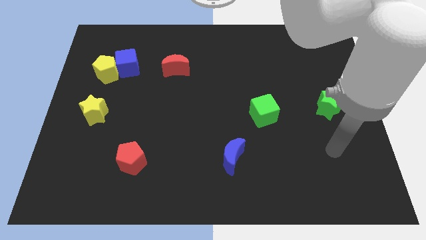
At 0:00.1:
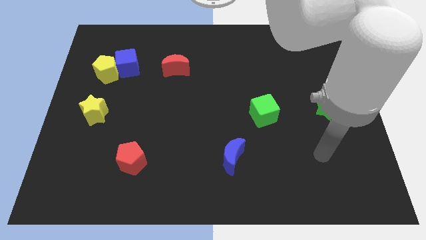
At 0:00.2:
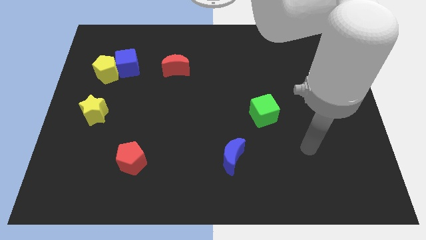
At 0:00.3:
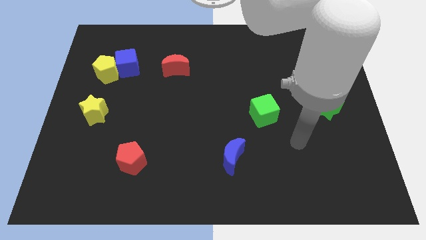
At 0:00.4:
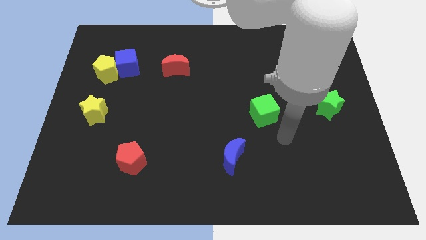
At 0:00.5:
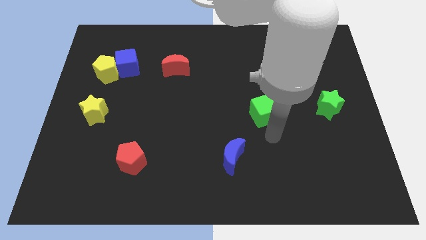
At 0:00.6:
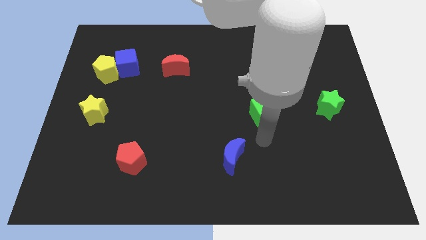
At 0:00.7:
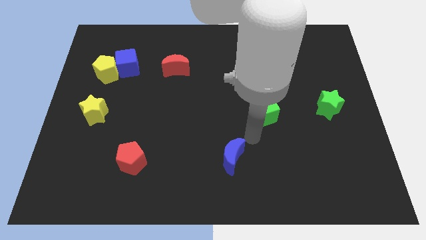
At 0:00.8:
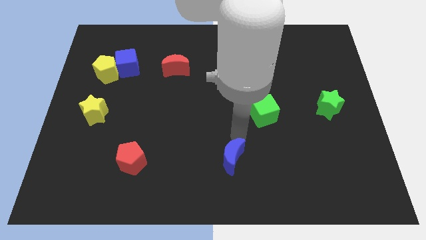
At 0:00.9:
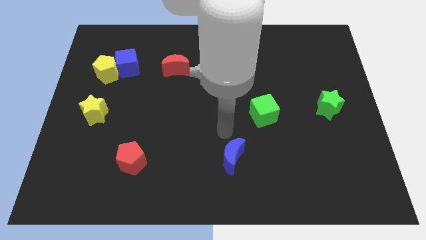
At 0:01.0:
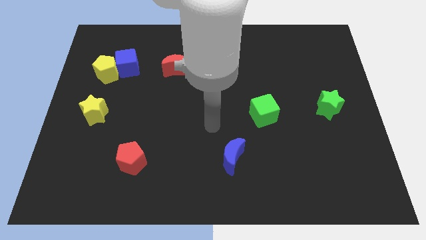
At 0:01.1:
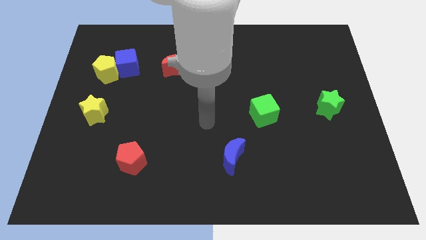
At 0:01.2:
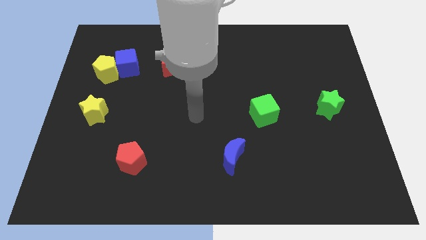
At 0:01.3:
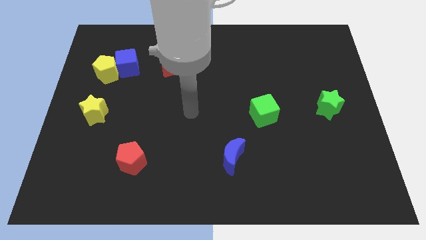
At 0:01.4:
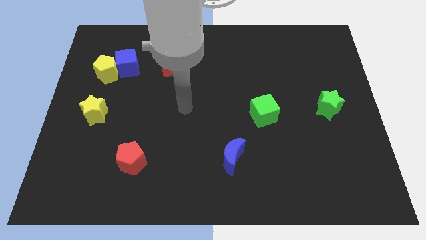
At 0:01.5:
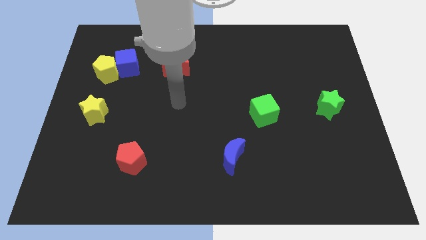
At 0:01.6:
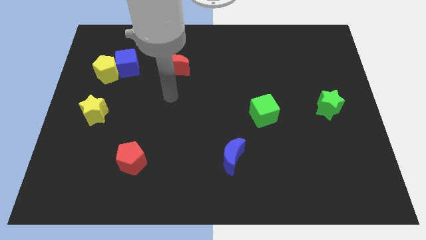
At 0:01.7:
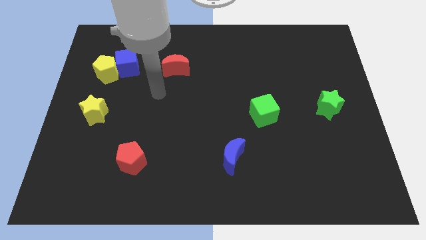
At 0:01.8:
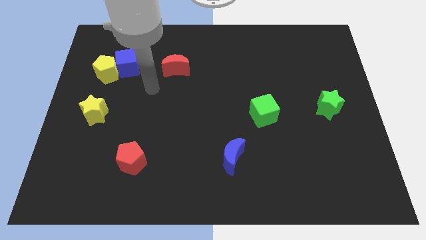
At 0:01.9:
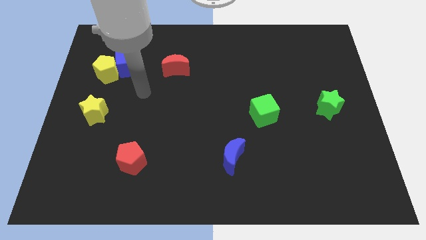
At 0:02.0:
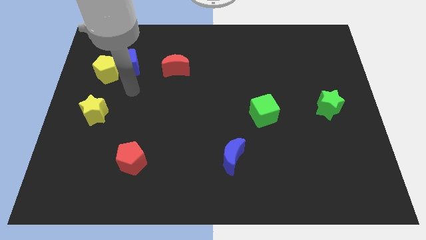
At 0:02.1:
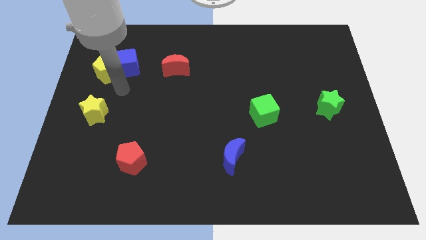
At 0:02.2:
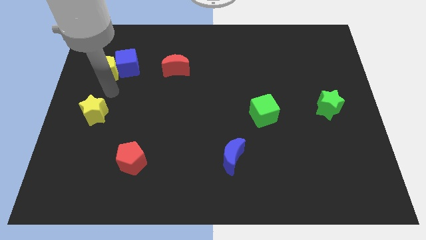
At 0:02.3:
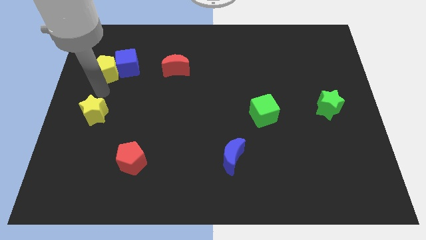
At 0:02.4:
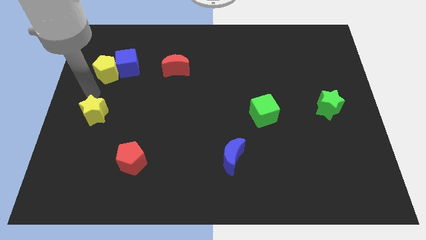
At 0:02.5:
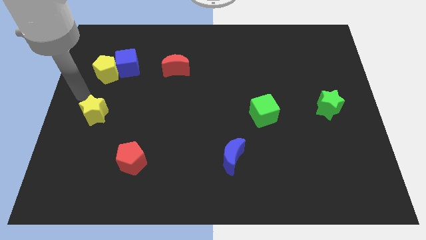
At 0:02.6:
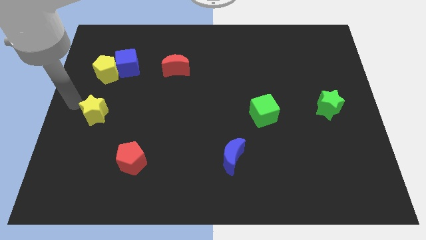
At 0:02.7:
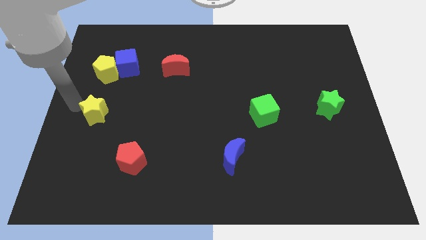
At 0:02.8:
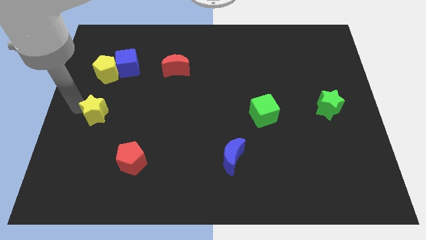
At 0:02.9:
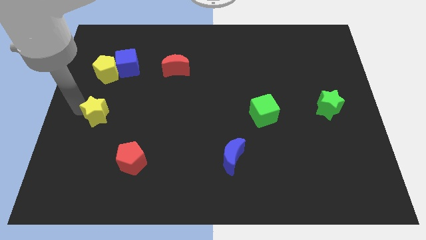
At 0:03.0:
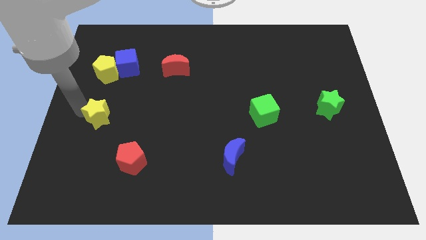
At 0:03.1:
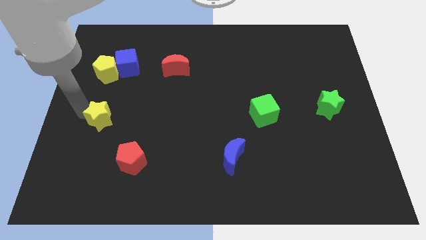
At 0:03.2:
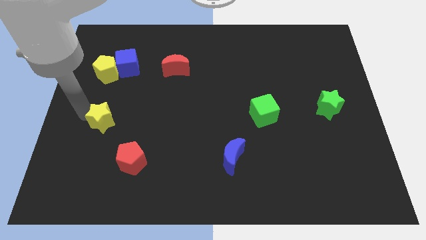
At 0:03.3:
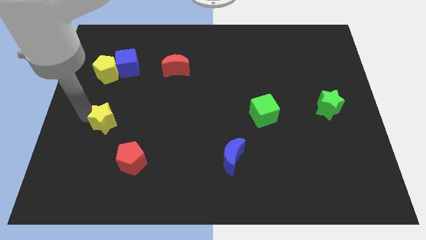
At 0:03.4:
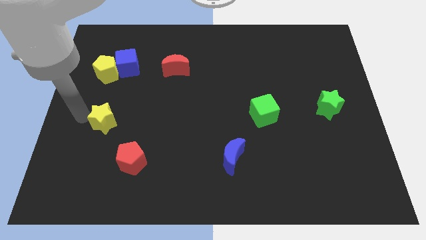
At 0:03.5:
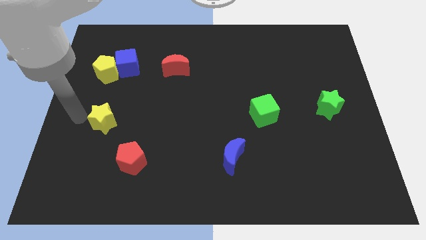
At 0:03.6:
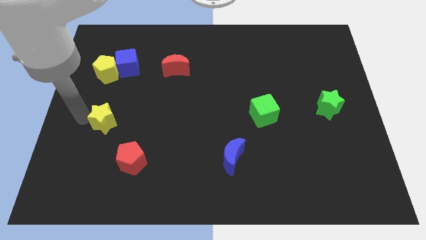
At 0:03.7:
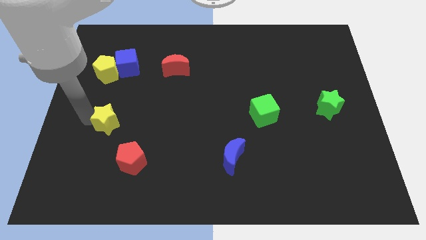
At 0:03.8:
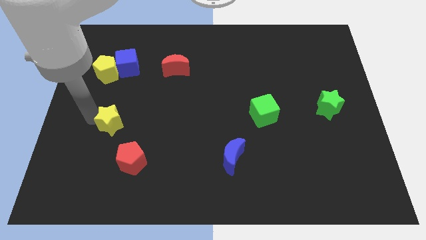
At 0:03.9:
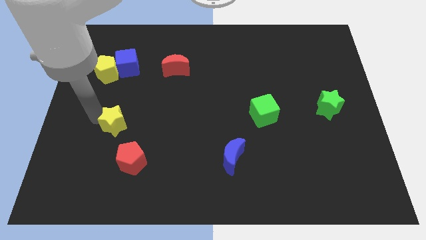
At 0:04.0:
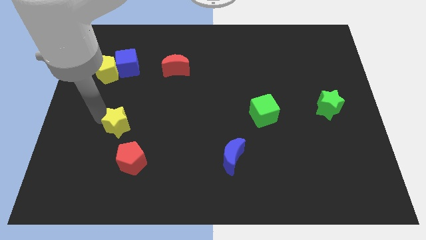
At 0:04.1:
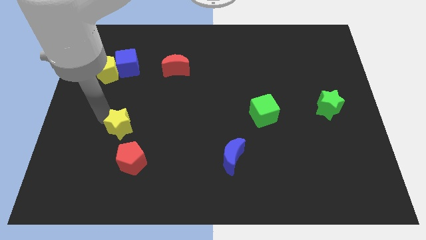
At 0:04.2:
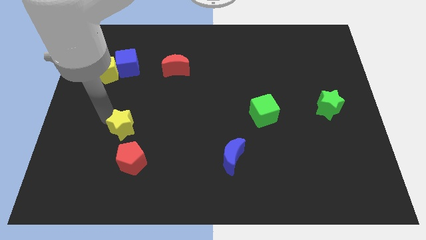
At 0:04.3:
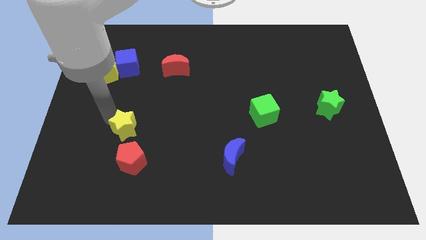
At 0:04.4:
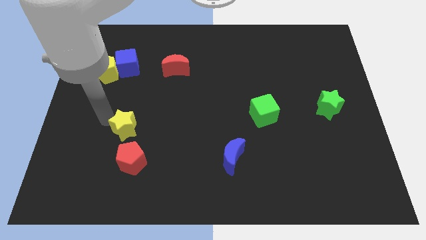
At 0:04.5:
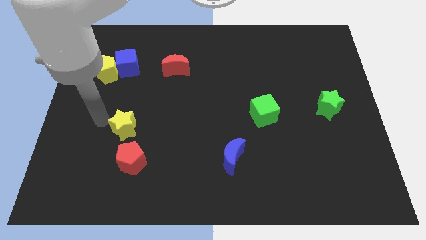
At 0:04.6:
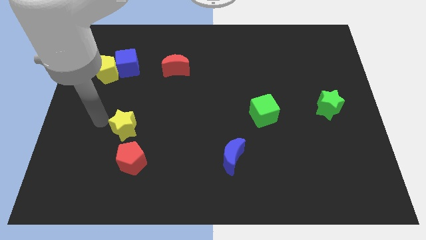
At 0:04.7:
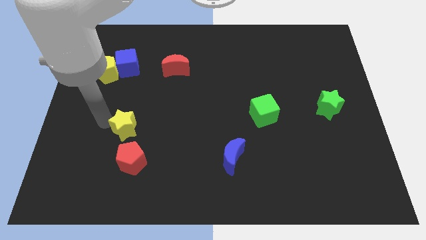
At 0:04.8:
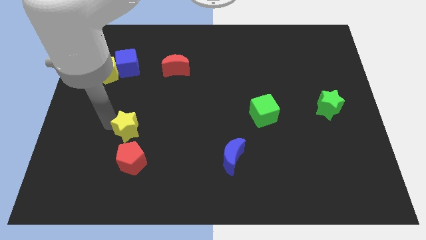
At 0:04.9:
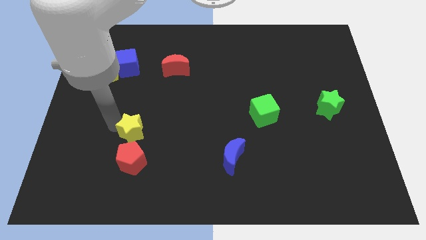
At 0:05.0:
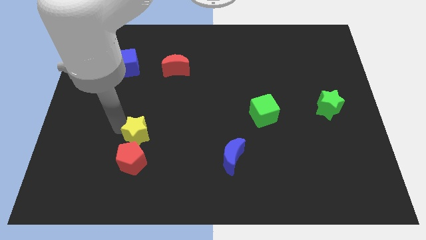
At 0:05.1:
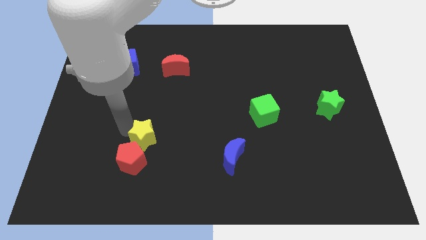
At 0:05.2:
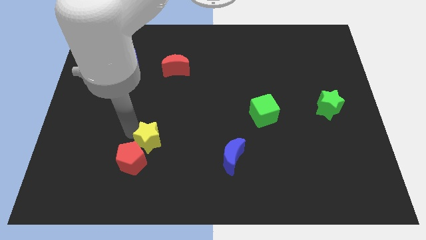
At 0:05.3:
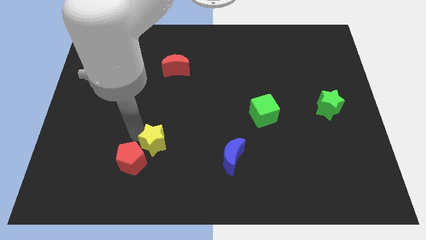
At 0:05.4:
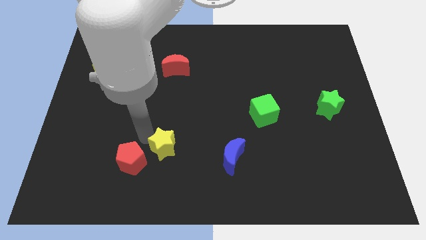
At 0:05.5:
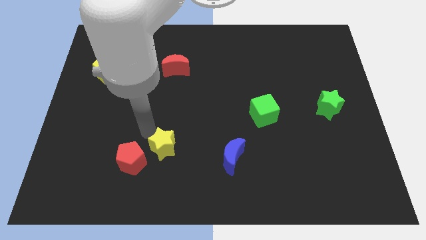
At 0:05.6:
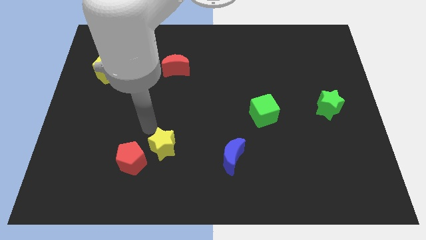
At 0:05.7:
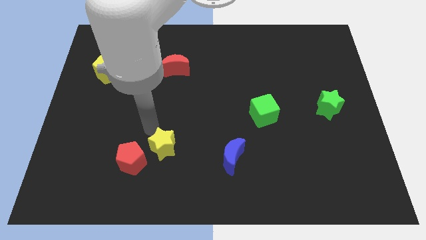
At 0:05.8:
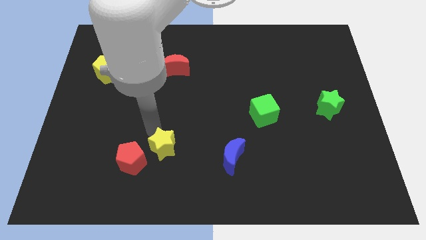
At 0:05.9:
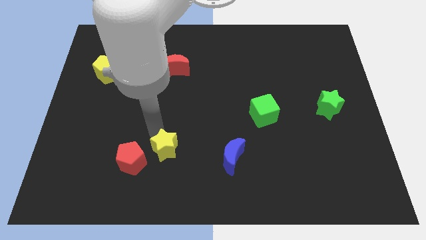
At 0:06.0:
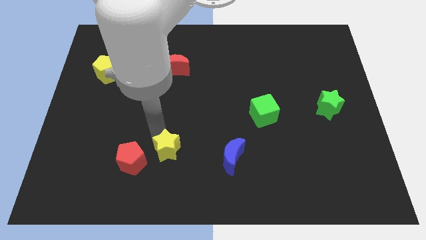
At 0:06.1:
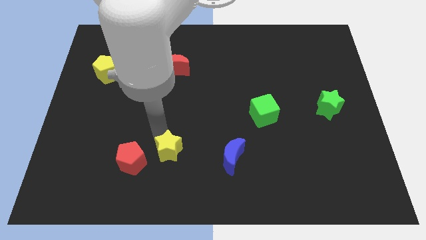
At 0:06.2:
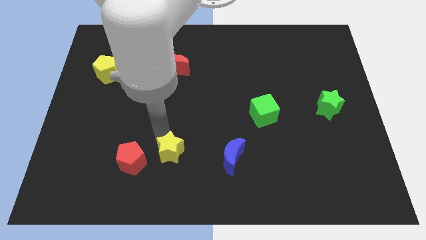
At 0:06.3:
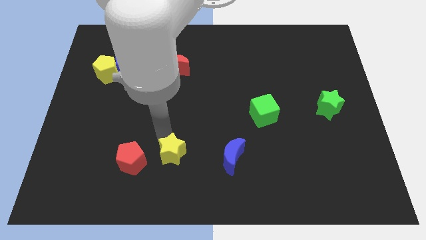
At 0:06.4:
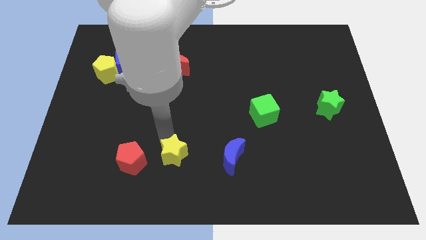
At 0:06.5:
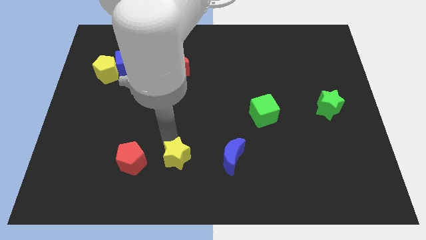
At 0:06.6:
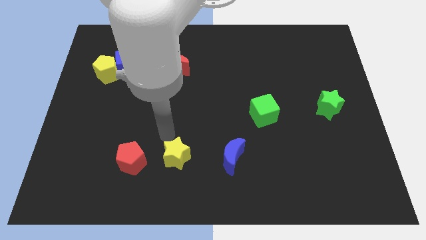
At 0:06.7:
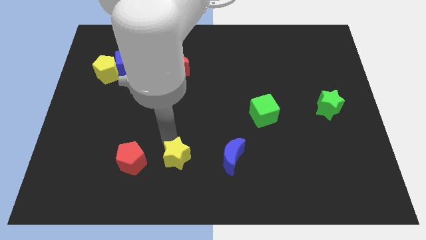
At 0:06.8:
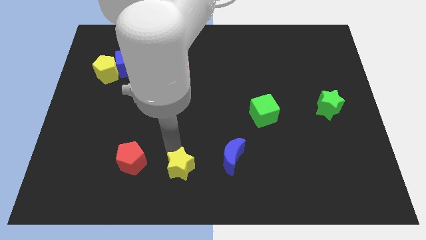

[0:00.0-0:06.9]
put the yellow star to the bottom
